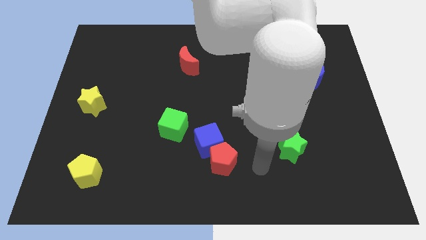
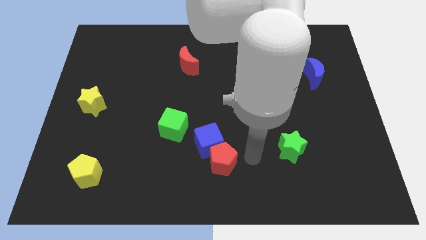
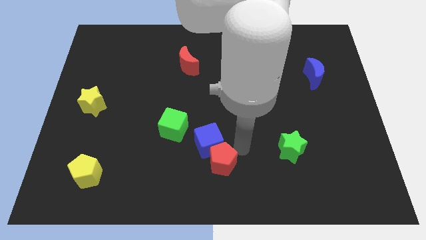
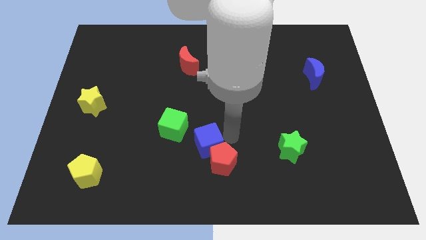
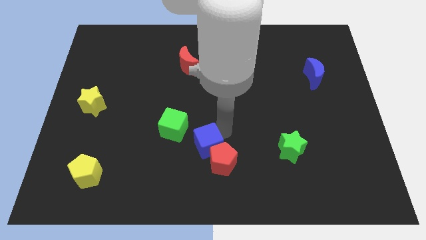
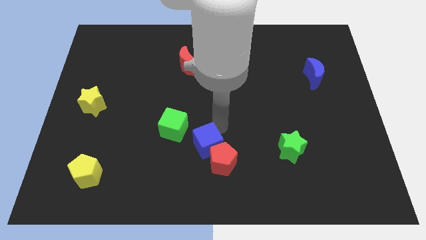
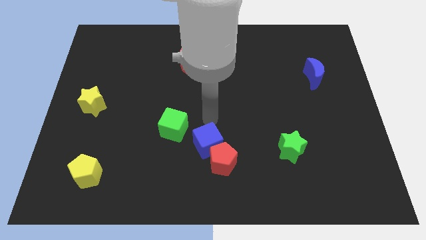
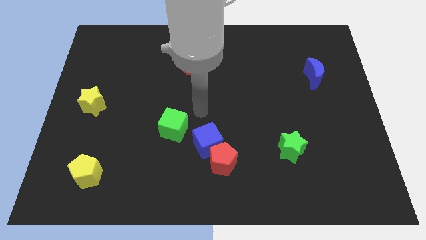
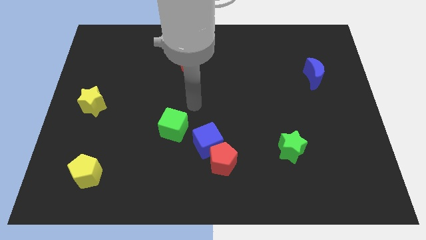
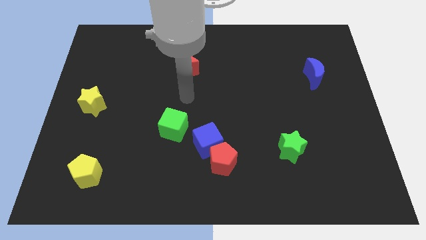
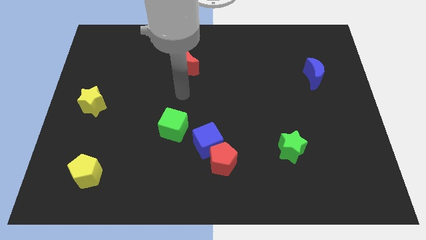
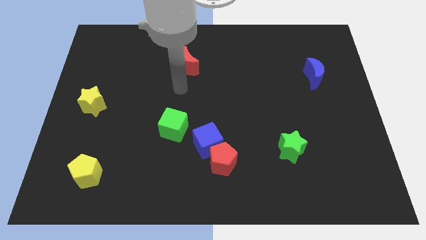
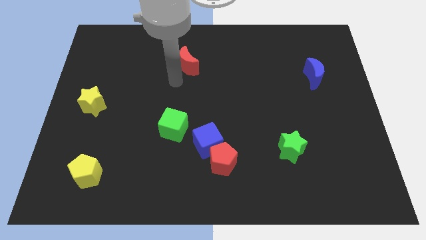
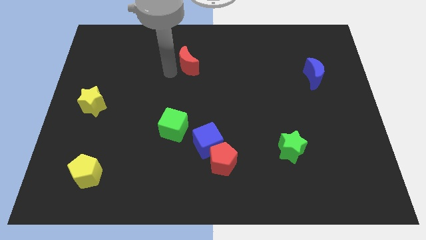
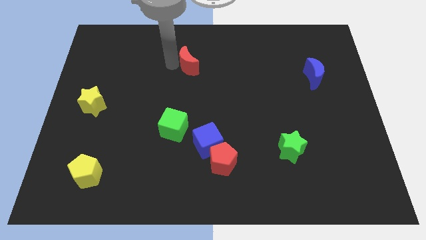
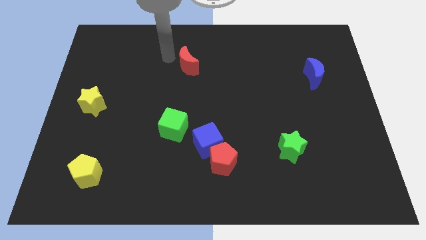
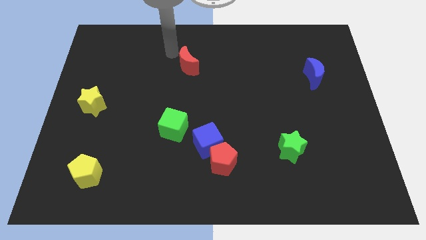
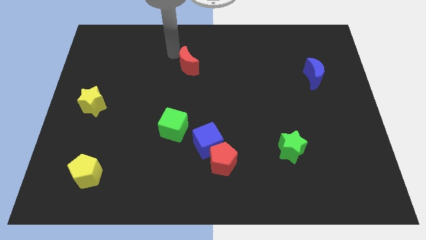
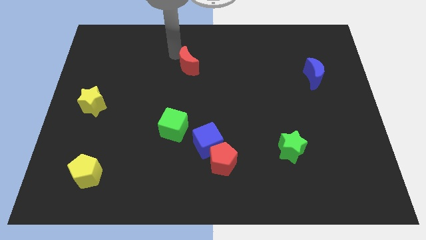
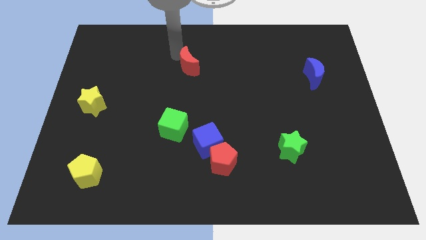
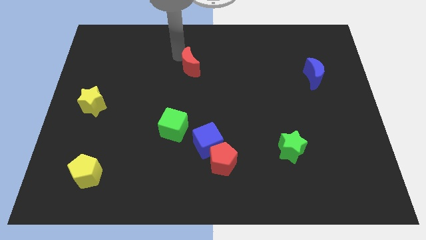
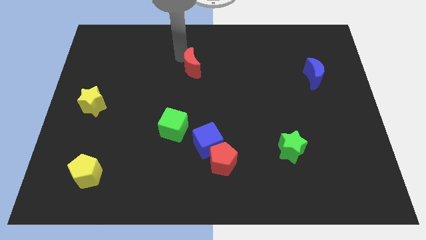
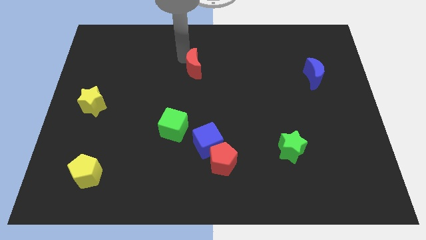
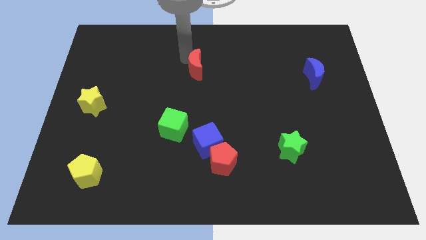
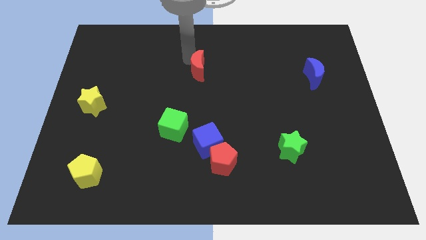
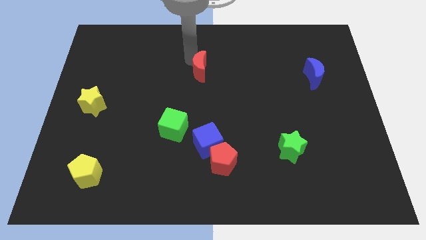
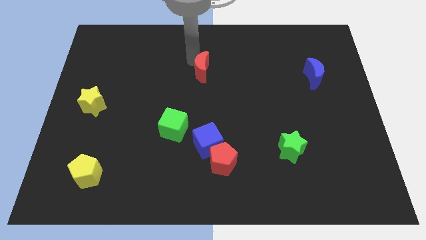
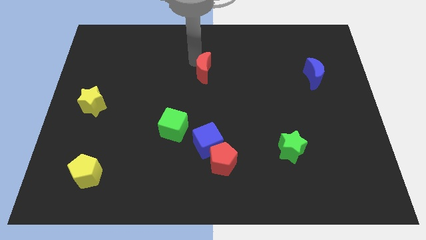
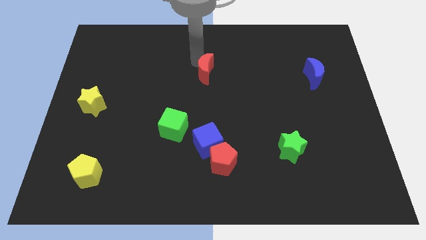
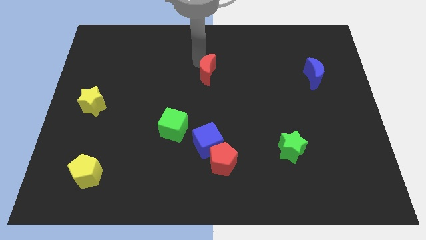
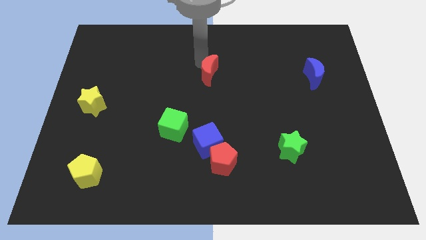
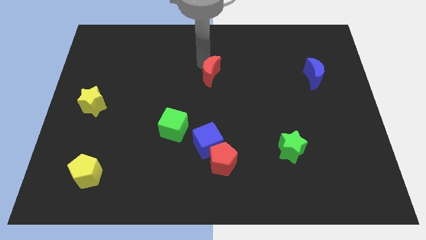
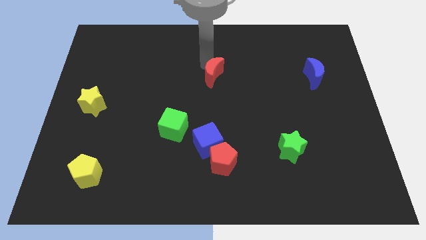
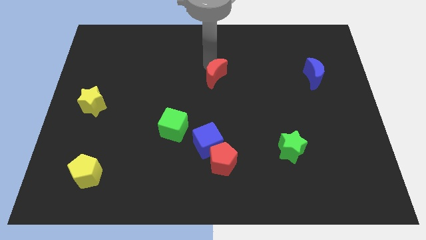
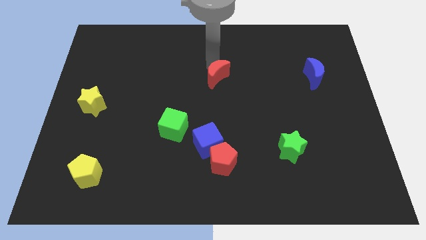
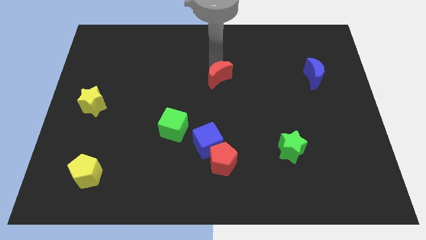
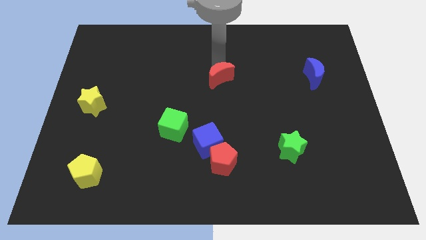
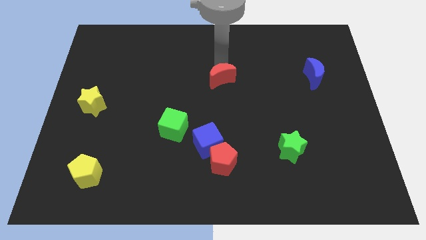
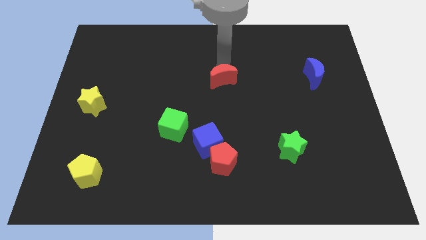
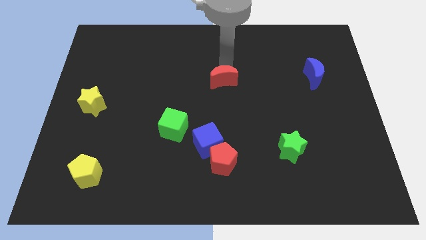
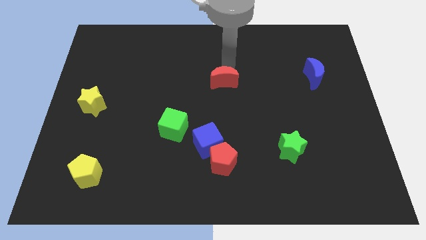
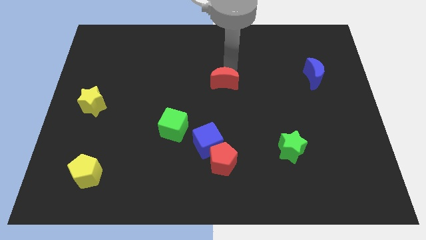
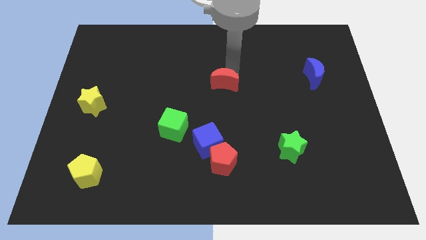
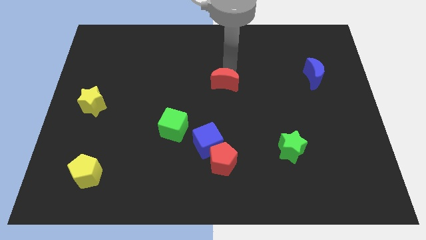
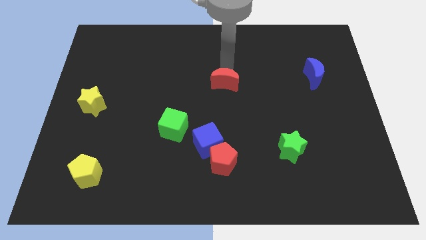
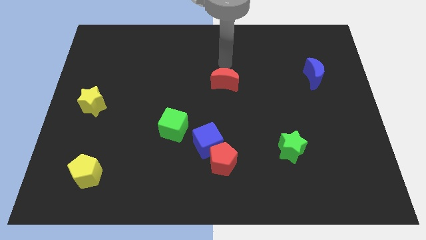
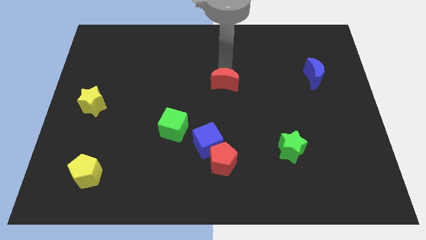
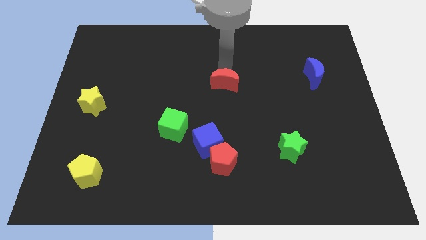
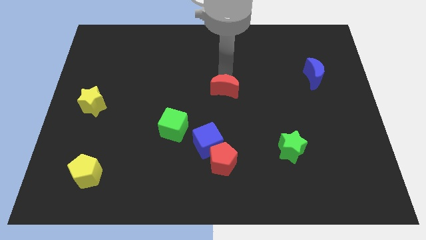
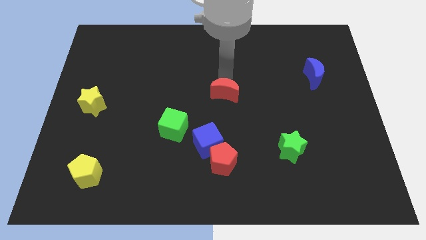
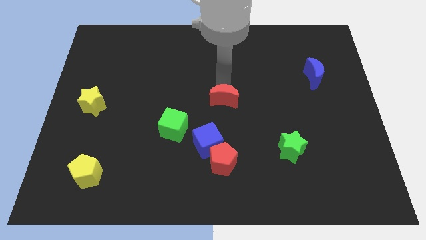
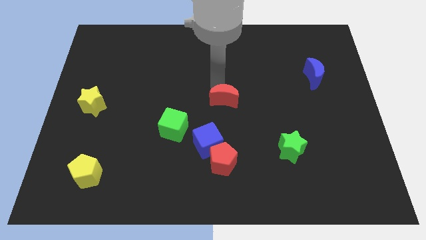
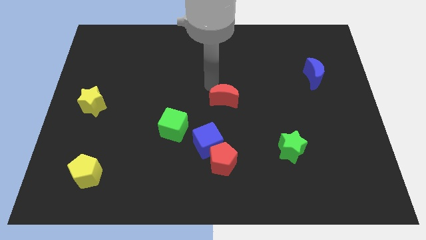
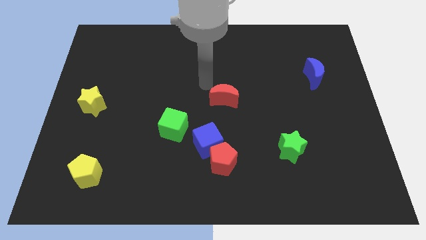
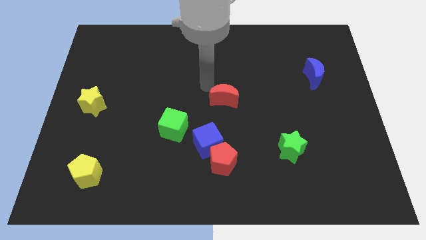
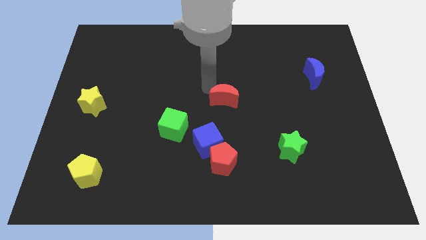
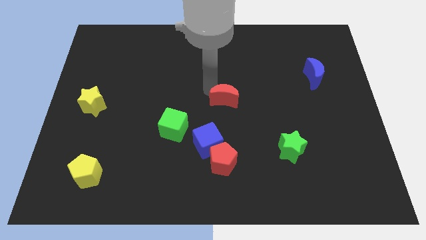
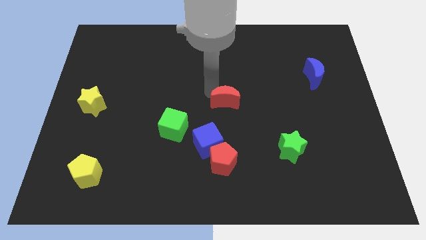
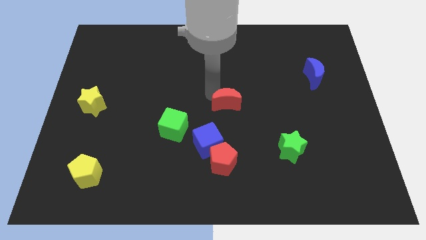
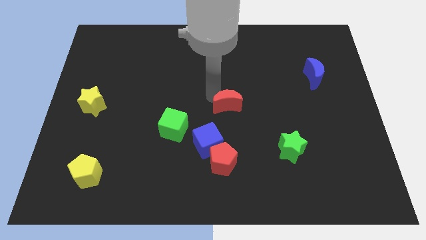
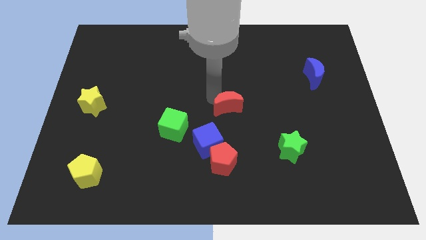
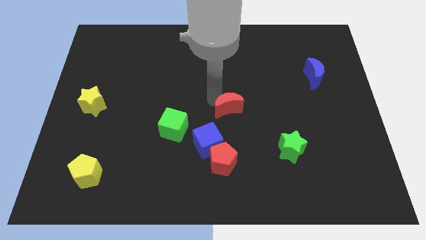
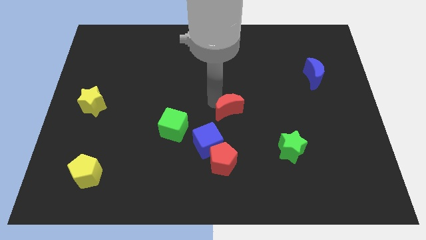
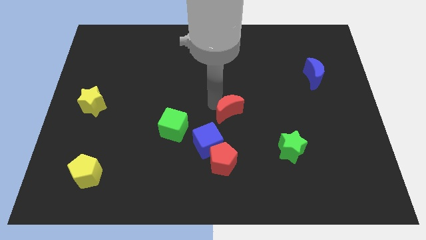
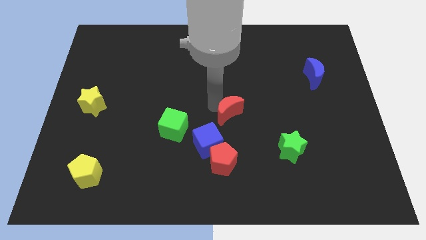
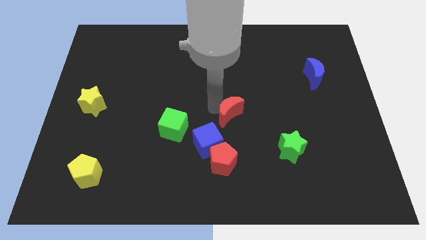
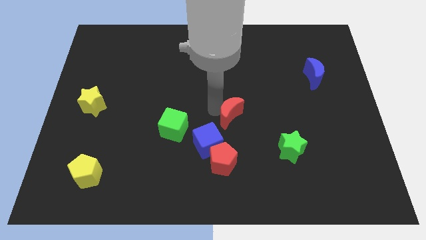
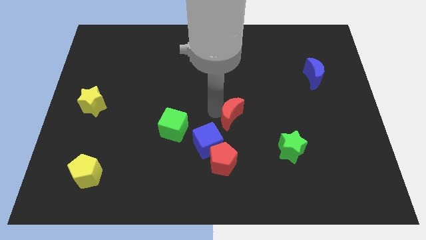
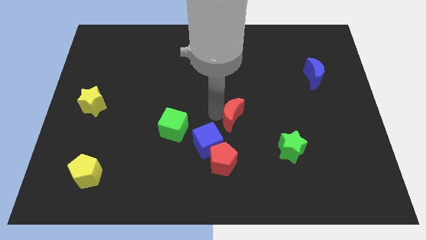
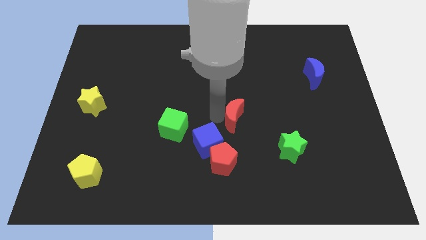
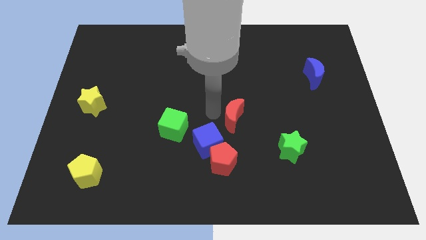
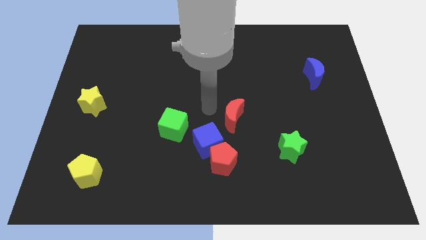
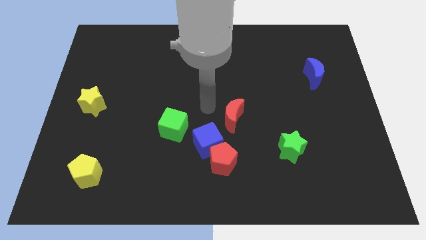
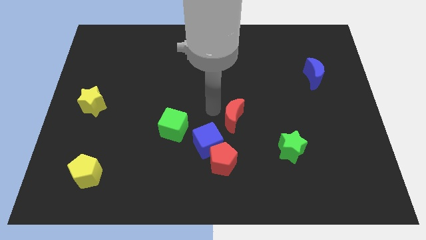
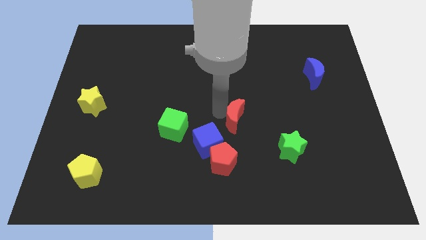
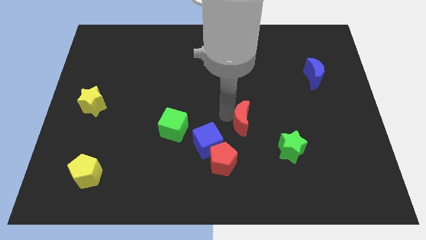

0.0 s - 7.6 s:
push the red moon to the top left side of the green star
